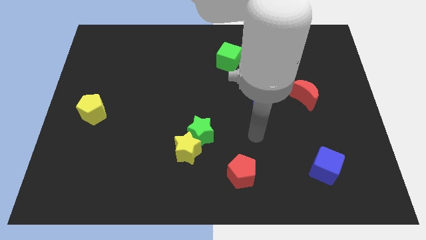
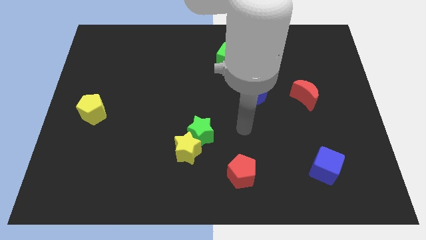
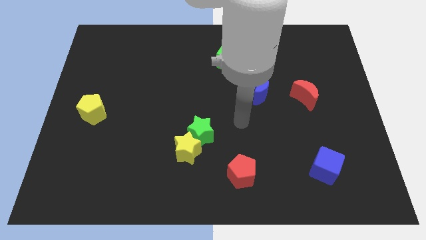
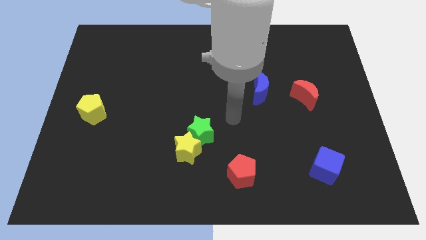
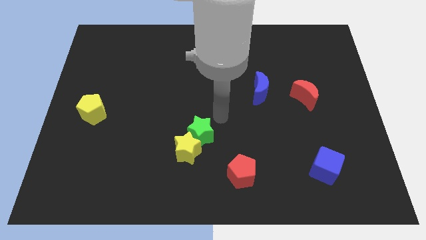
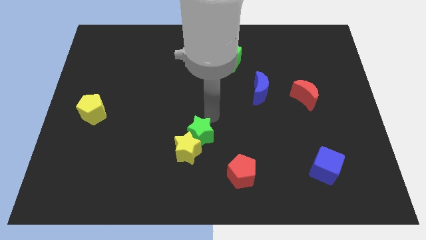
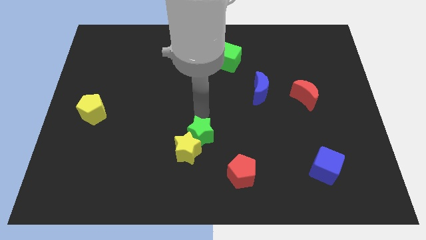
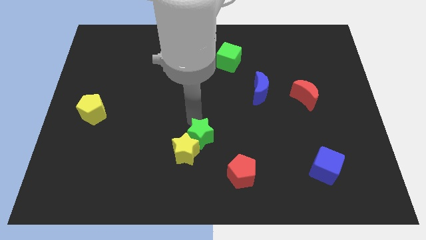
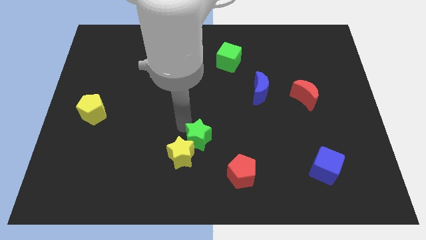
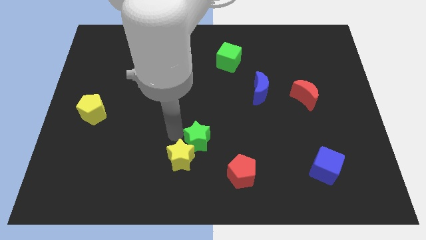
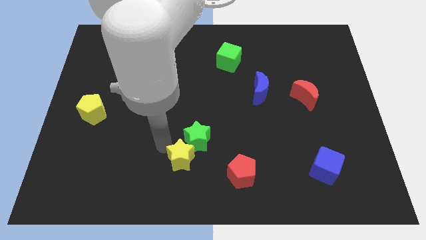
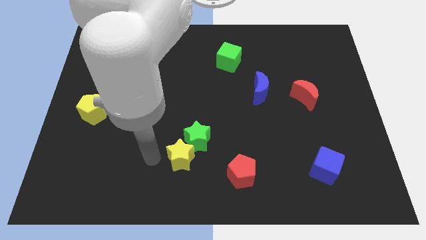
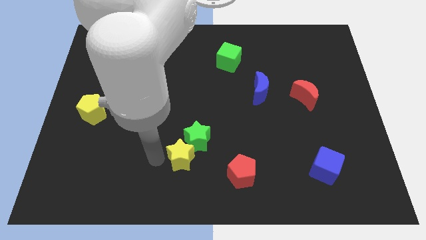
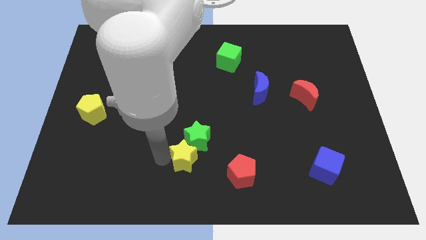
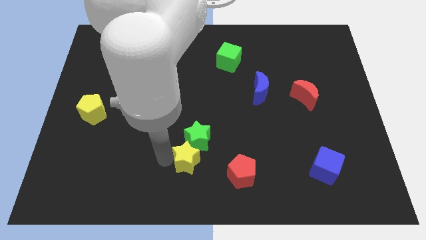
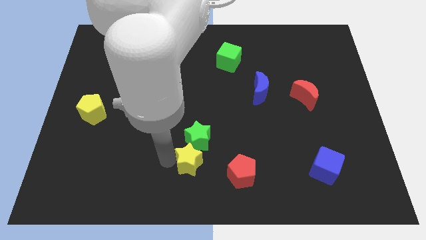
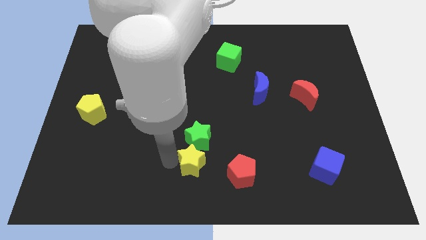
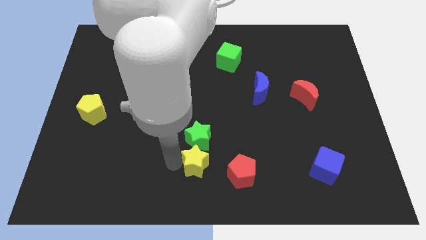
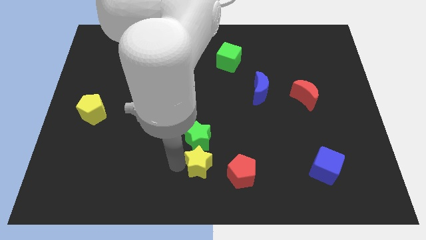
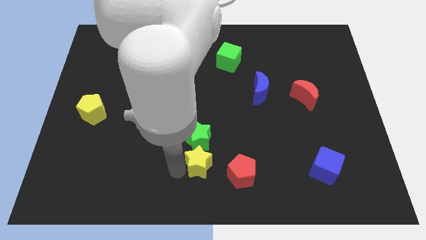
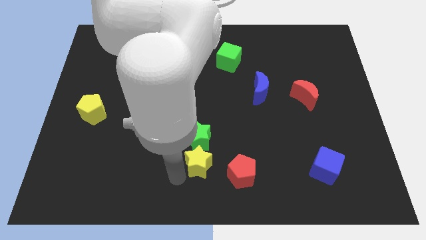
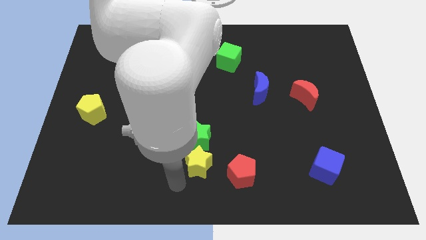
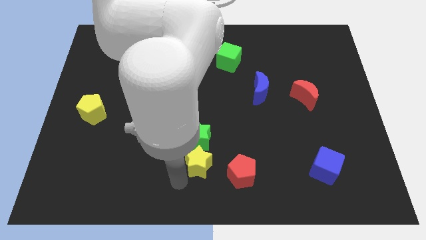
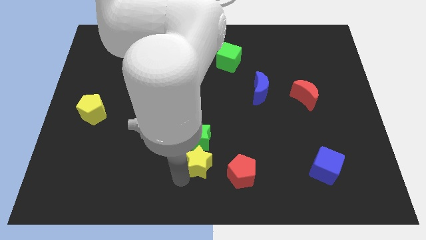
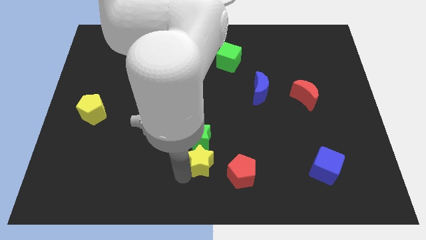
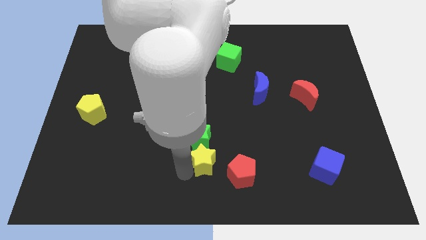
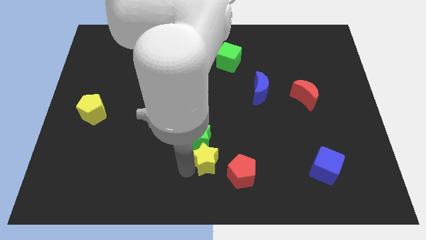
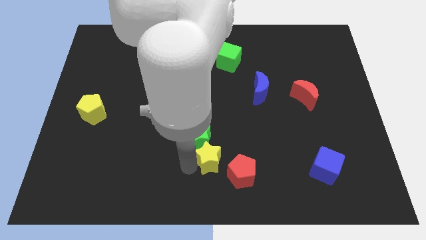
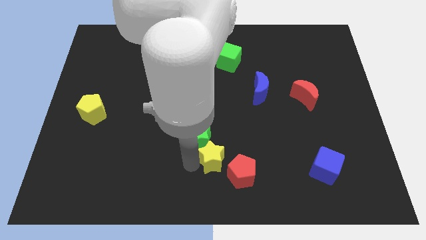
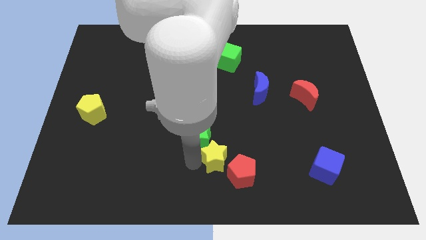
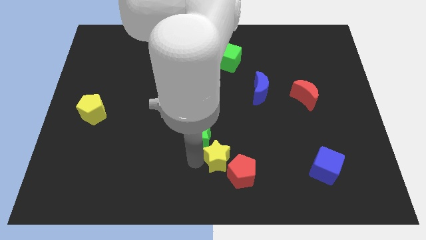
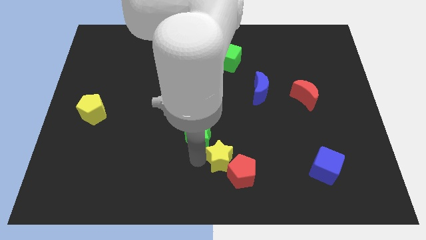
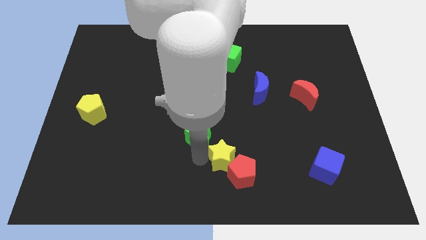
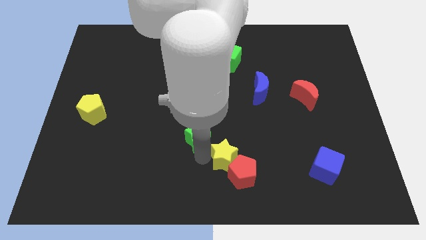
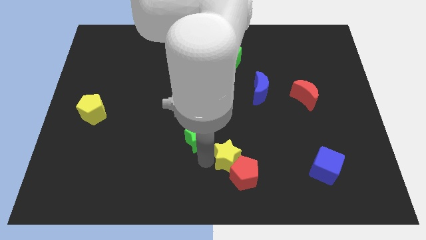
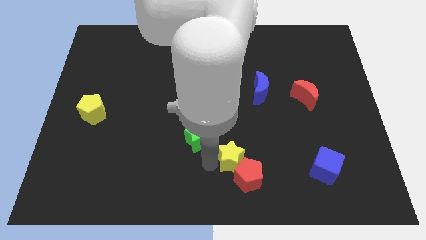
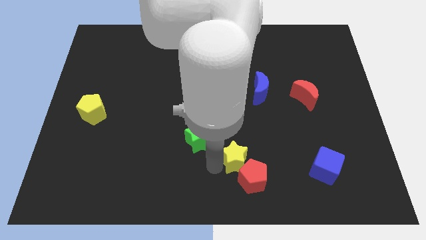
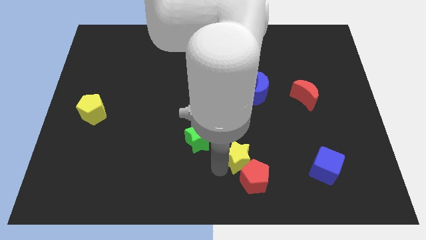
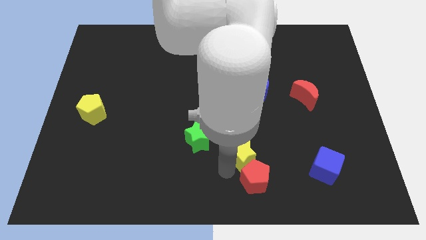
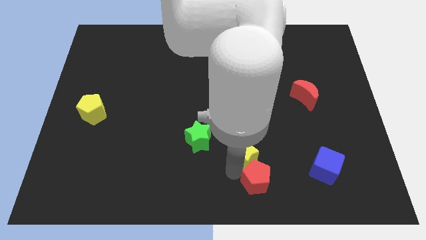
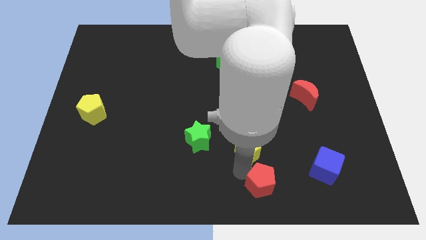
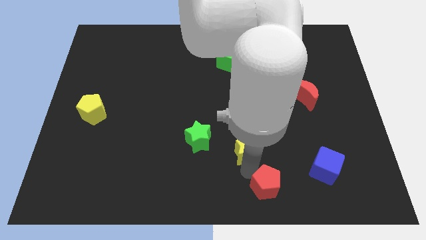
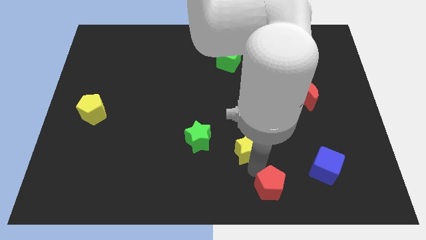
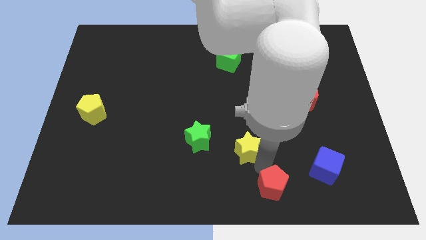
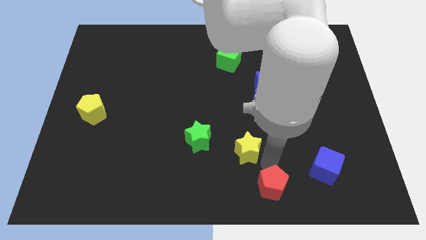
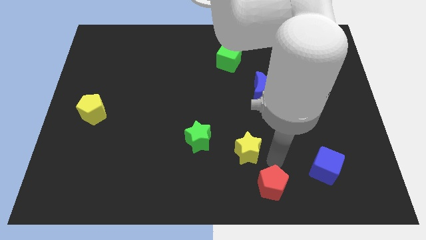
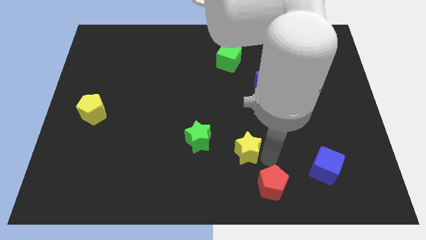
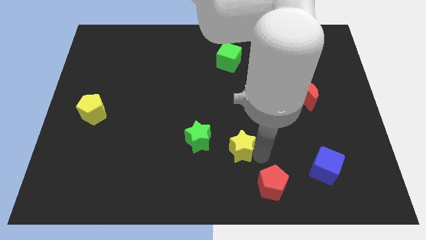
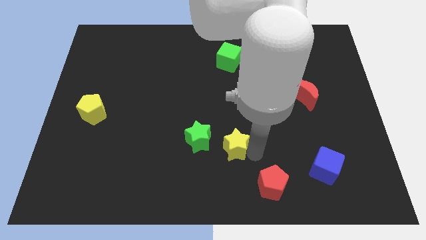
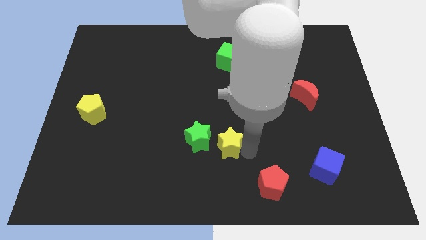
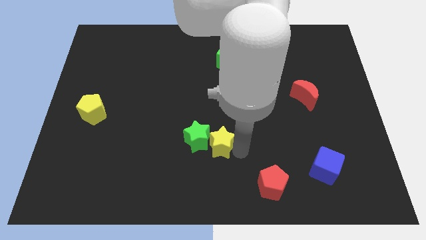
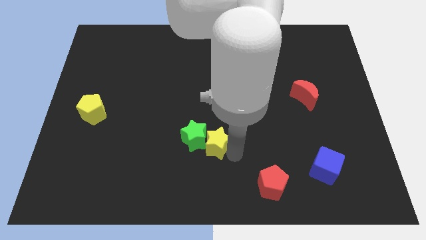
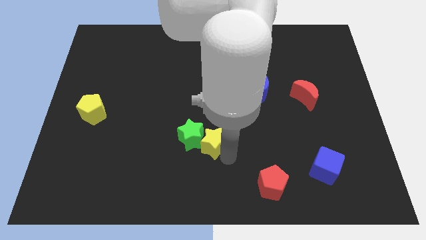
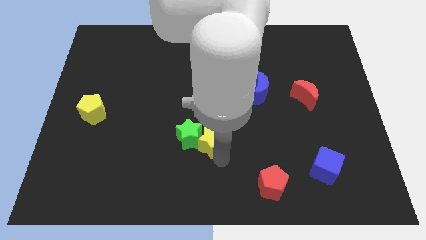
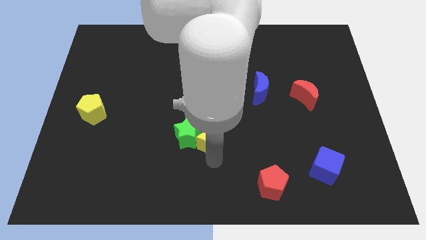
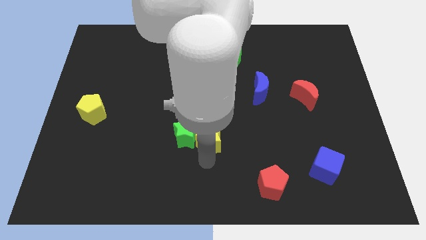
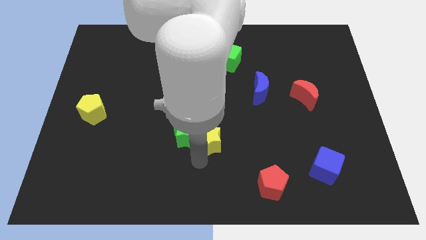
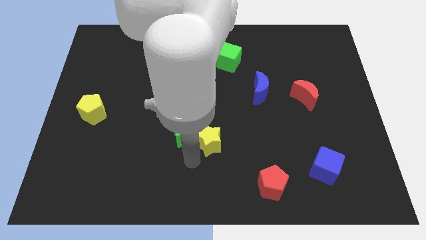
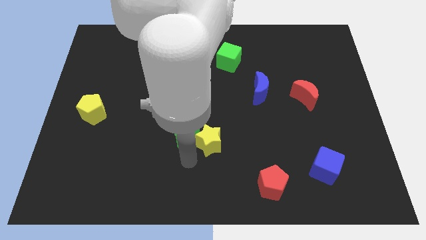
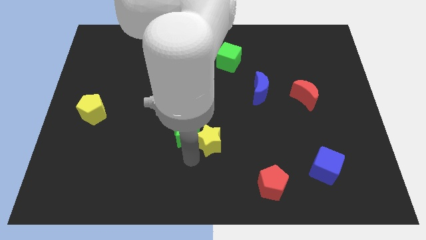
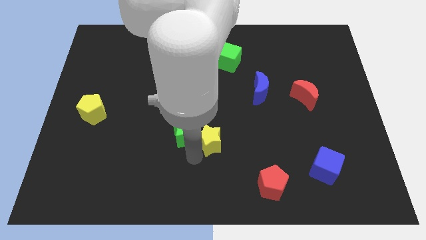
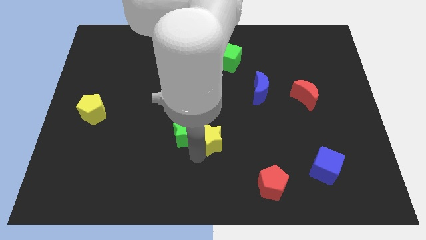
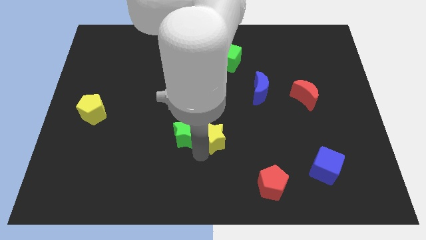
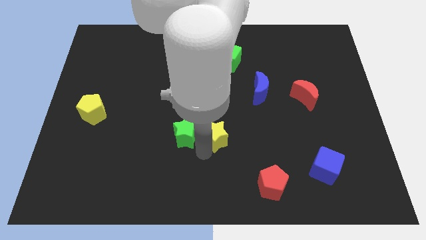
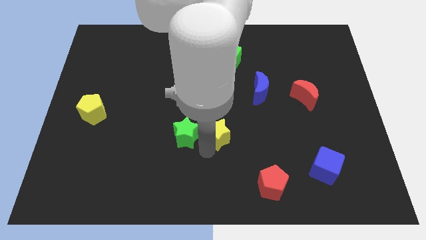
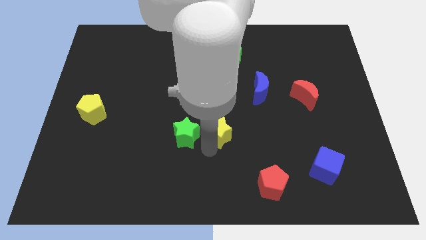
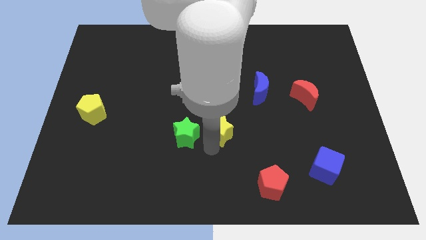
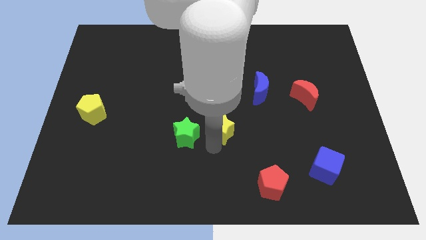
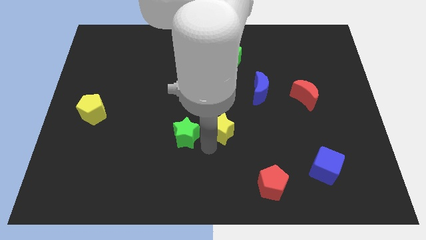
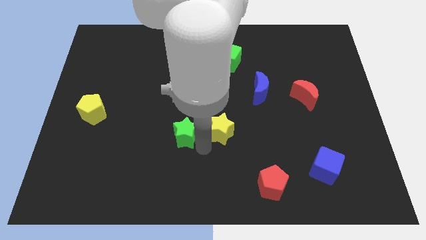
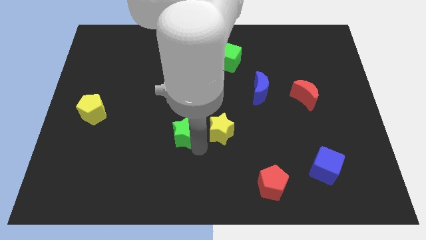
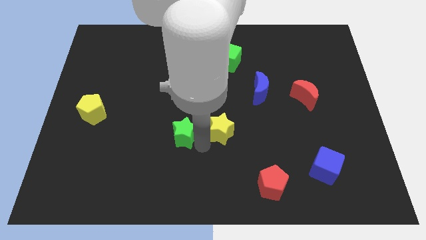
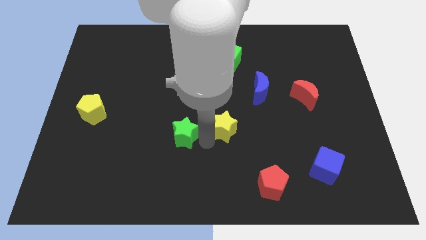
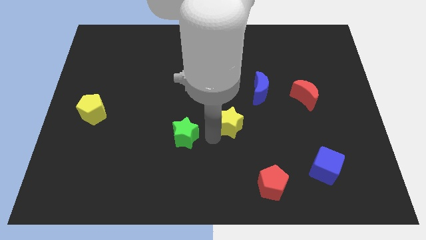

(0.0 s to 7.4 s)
slide the yellow star to the bottom left of the blue moon

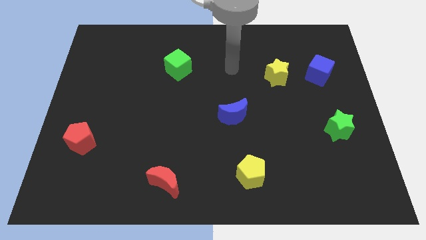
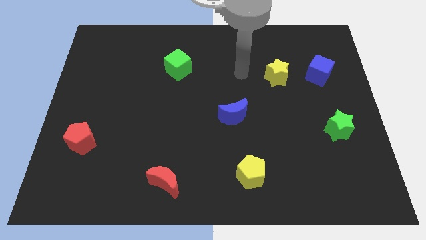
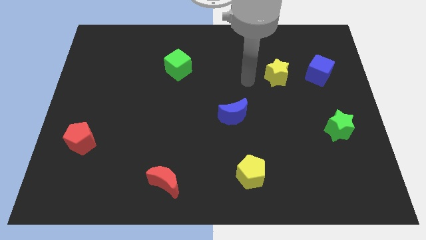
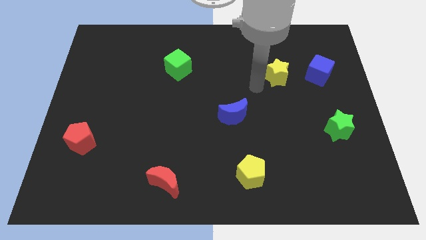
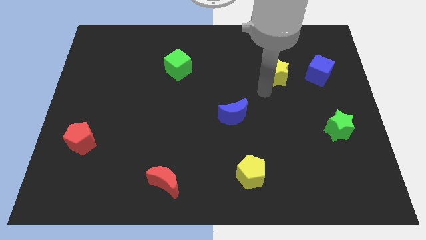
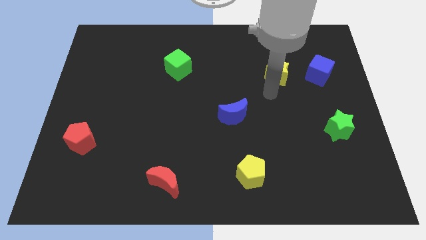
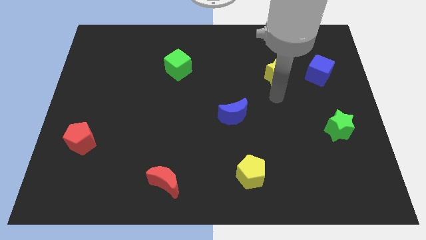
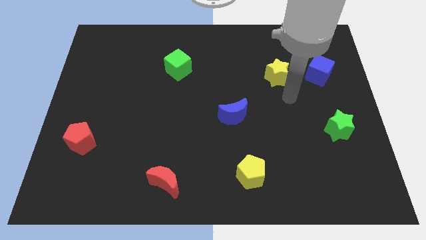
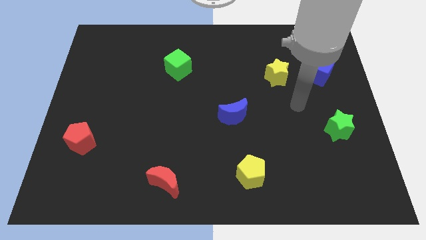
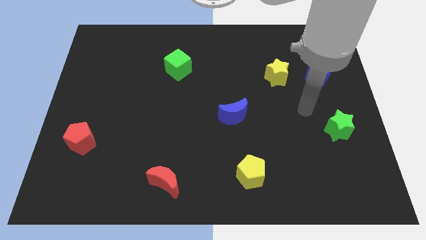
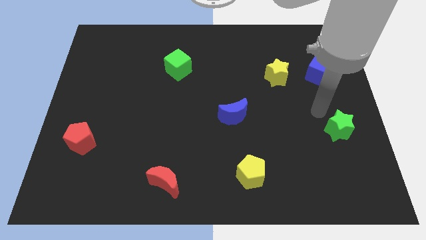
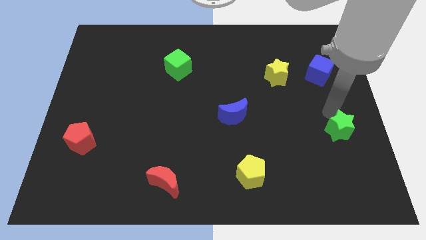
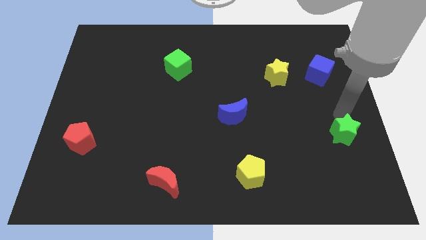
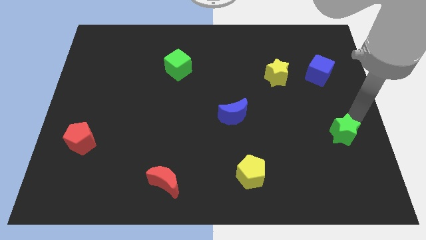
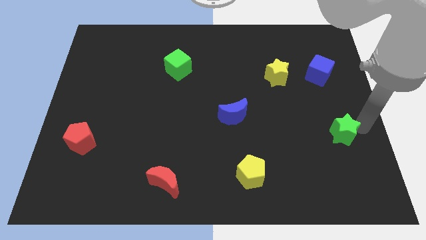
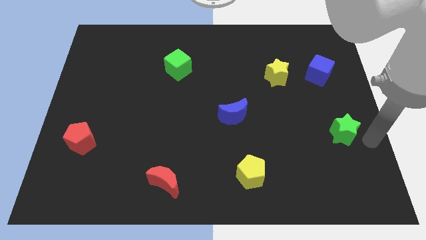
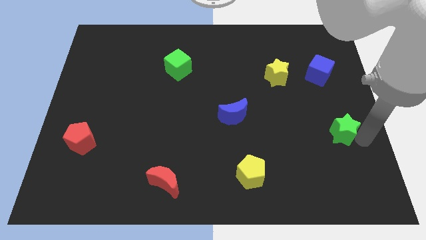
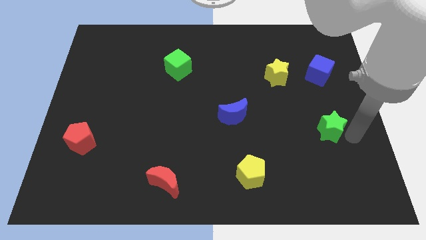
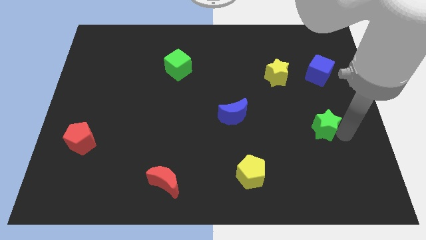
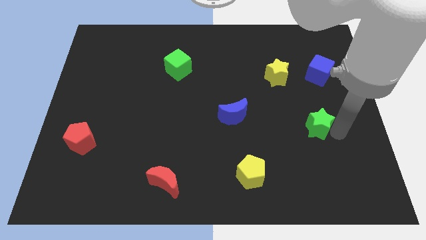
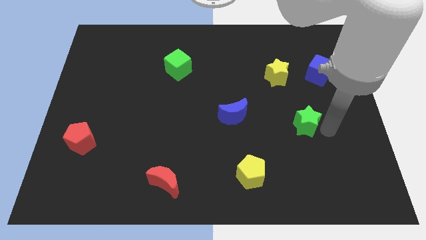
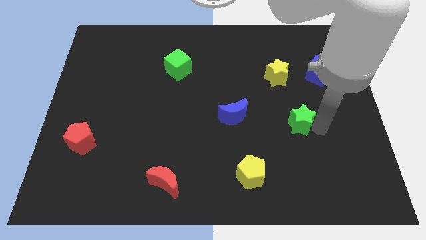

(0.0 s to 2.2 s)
put the green star right of the blue moon
